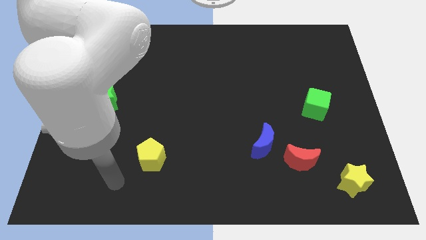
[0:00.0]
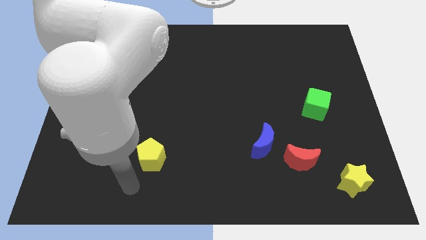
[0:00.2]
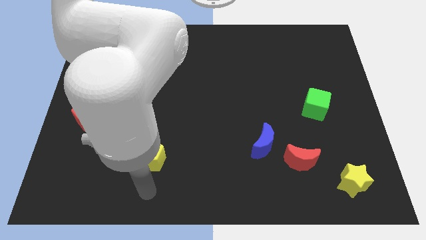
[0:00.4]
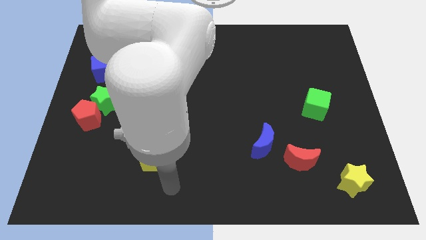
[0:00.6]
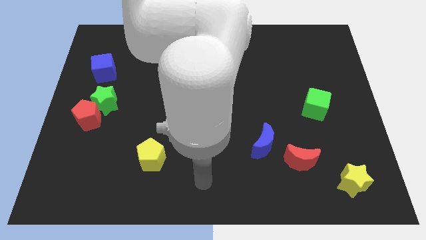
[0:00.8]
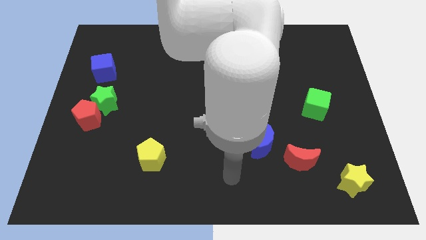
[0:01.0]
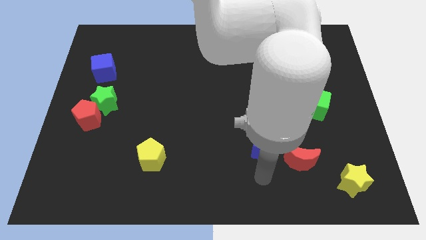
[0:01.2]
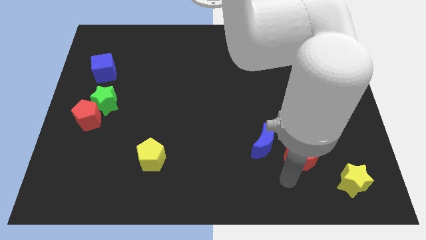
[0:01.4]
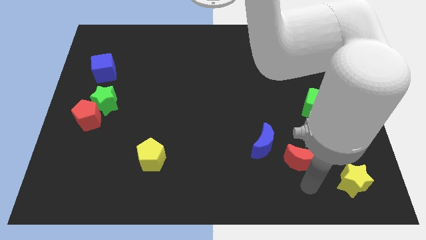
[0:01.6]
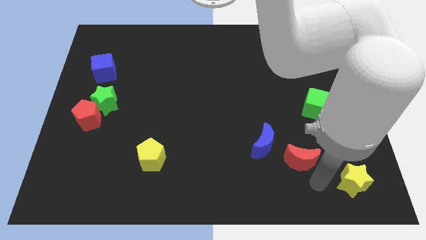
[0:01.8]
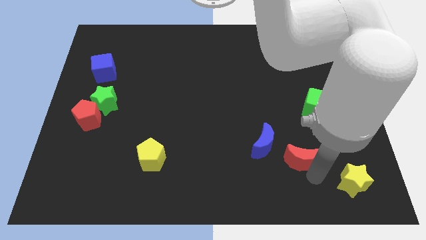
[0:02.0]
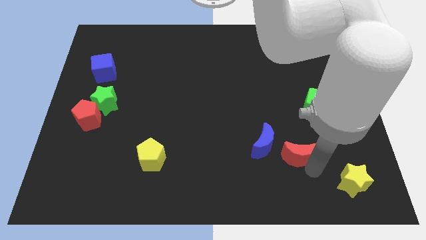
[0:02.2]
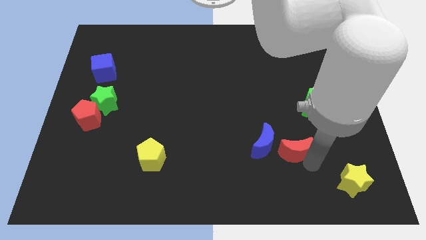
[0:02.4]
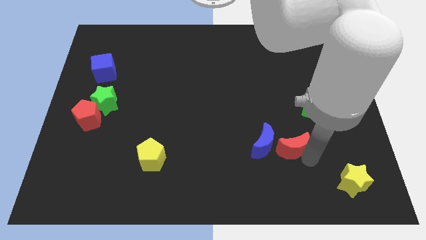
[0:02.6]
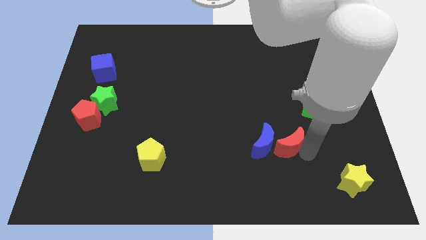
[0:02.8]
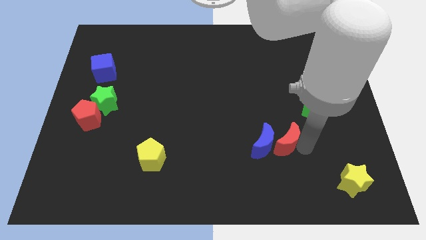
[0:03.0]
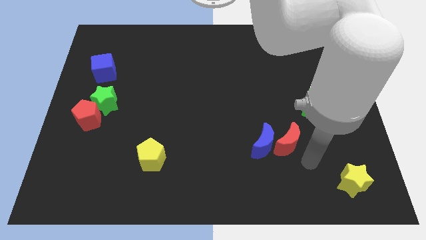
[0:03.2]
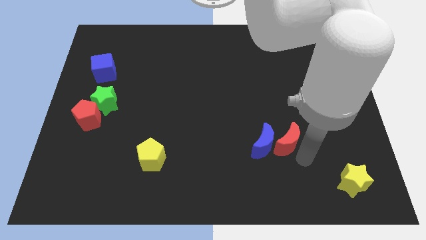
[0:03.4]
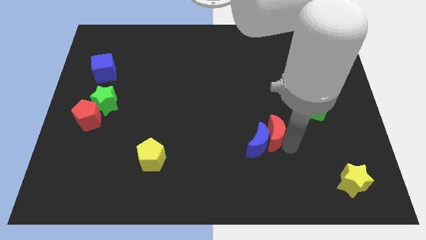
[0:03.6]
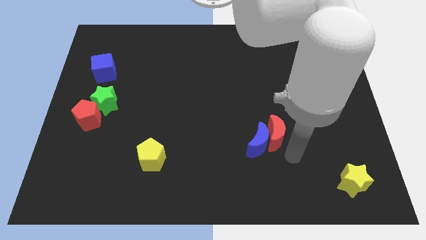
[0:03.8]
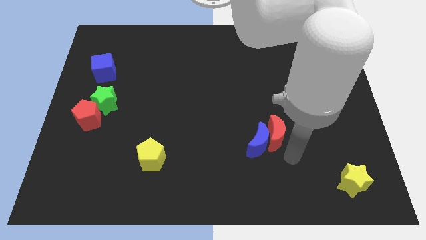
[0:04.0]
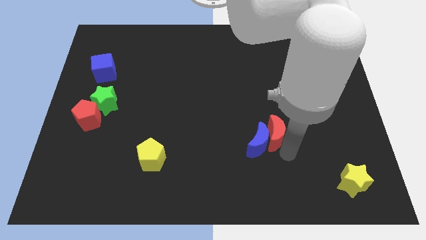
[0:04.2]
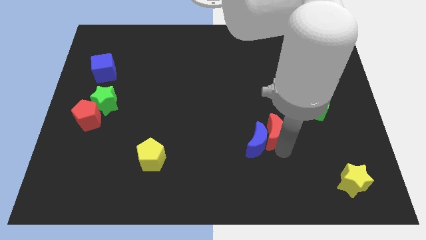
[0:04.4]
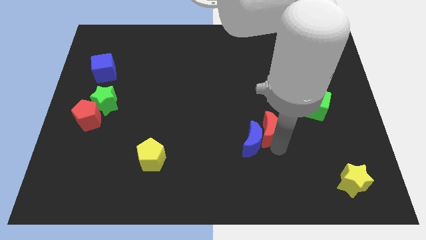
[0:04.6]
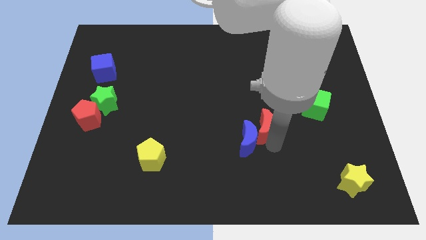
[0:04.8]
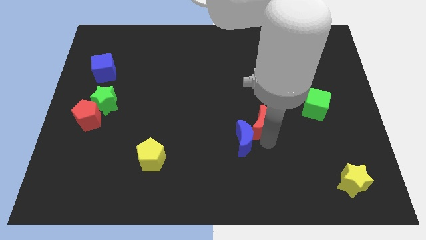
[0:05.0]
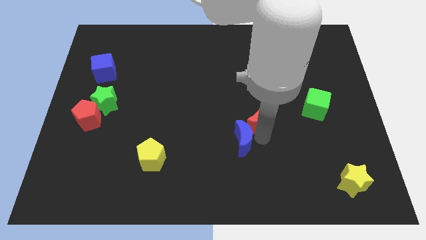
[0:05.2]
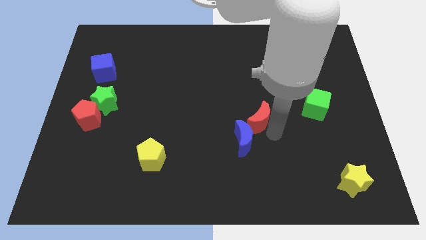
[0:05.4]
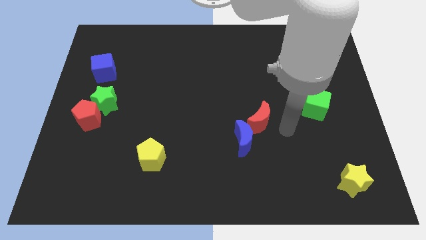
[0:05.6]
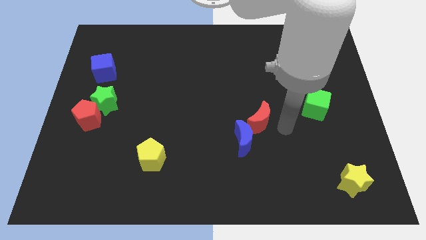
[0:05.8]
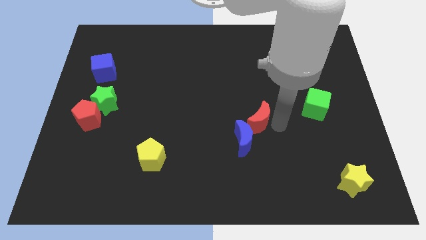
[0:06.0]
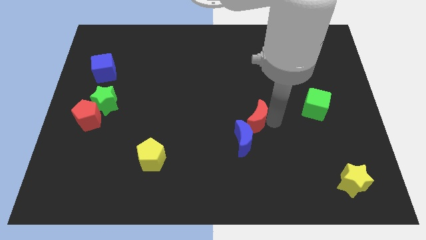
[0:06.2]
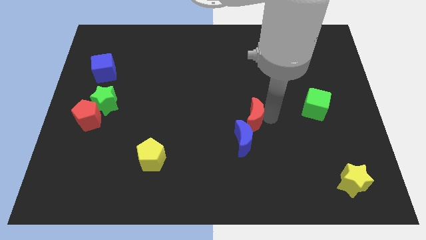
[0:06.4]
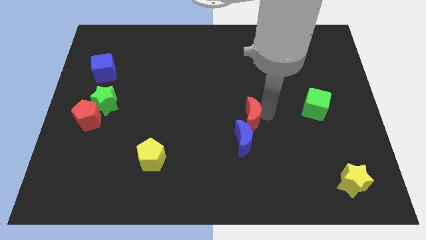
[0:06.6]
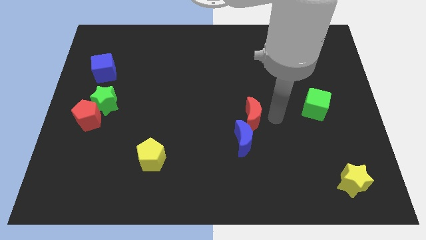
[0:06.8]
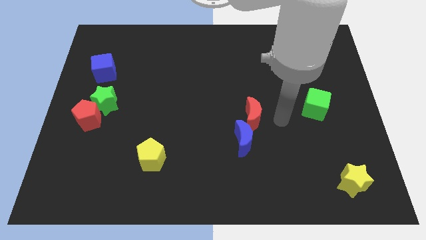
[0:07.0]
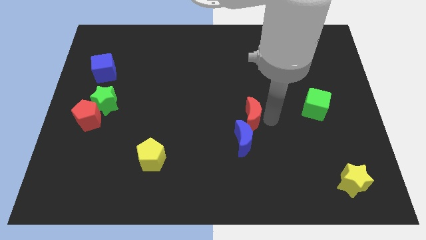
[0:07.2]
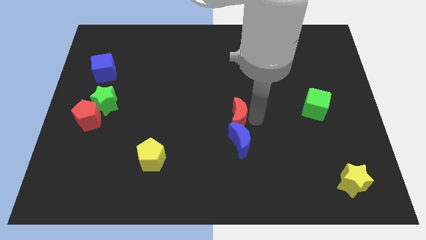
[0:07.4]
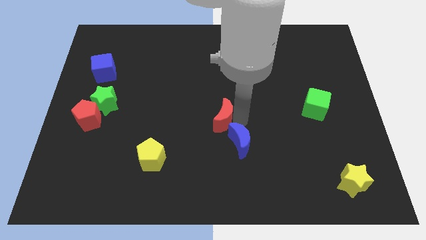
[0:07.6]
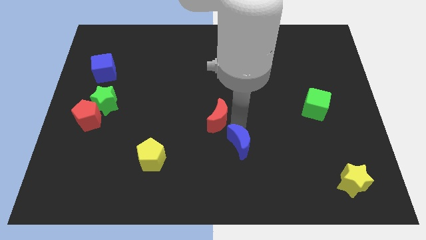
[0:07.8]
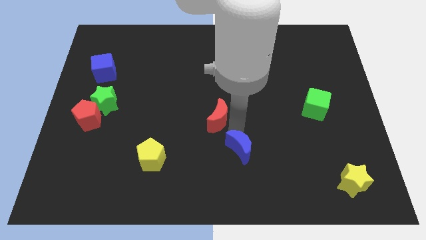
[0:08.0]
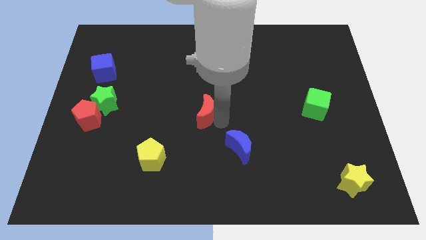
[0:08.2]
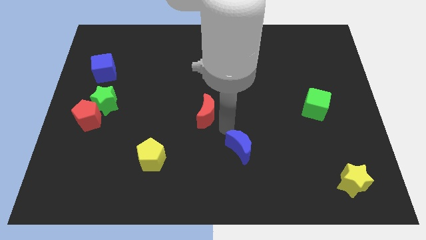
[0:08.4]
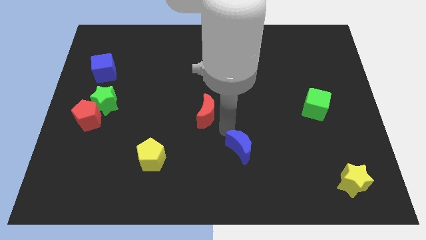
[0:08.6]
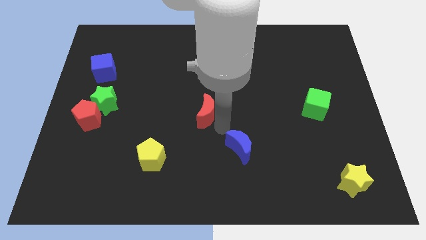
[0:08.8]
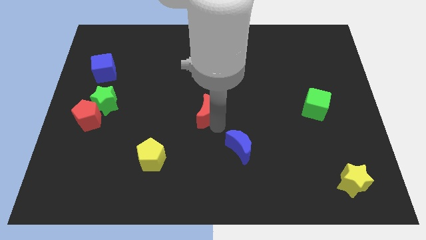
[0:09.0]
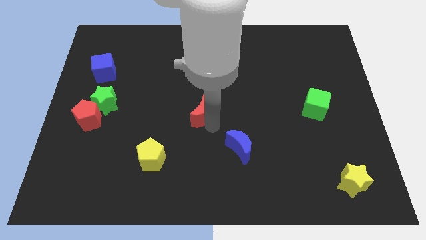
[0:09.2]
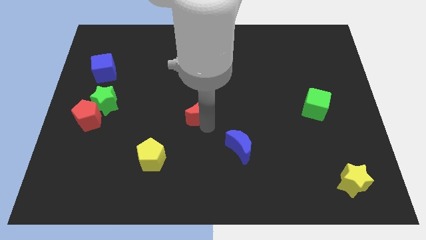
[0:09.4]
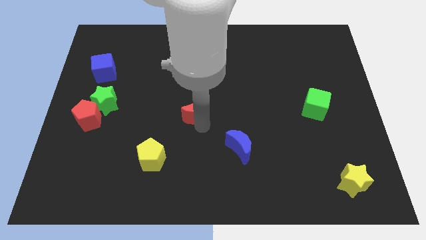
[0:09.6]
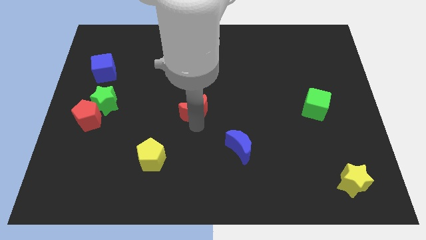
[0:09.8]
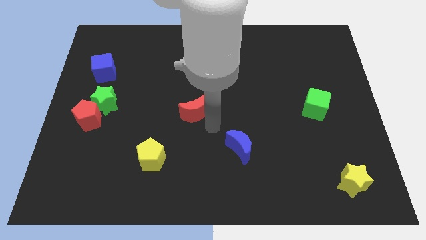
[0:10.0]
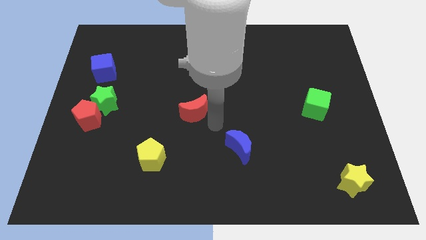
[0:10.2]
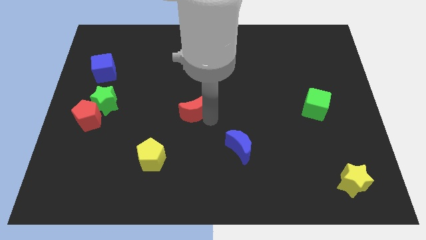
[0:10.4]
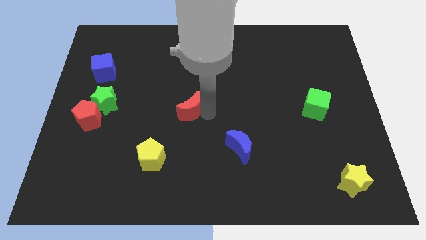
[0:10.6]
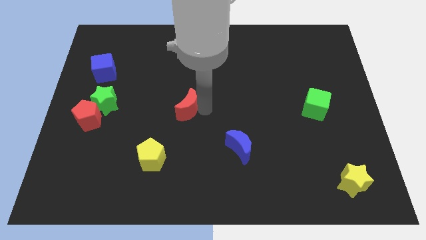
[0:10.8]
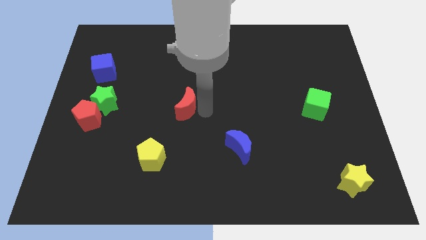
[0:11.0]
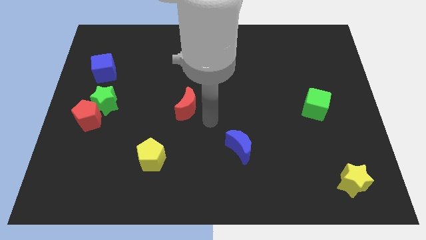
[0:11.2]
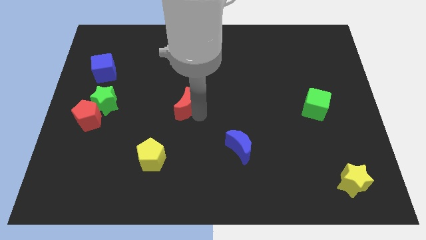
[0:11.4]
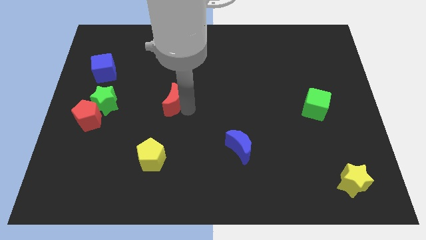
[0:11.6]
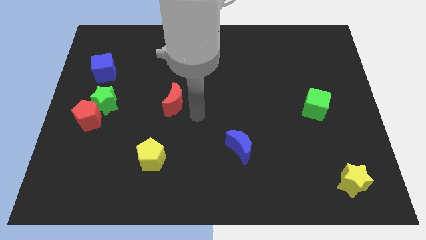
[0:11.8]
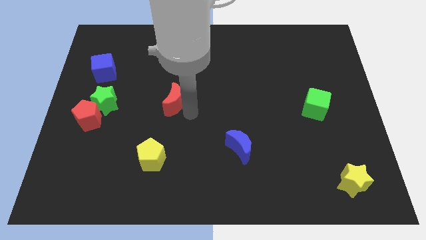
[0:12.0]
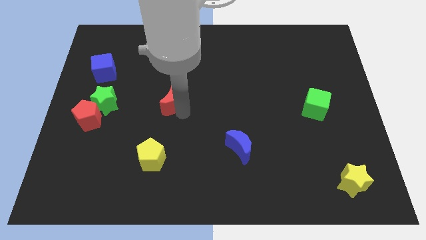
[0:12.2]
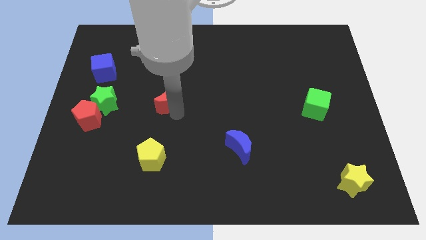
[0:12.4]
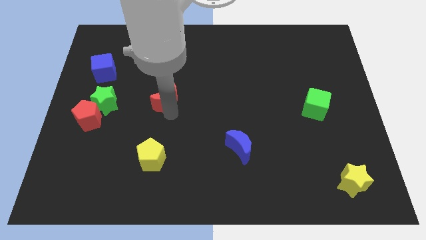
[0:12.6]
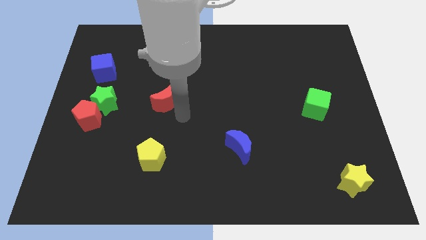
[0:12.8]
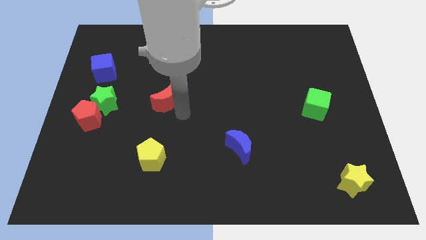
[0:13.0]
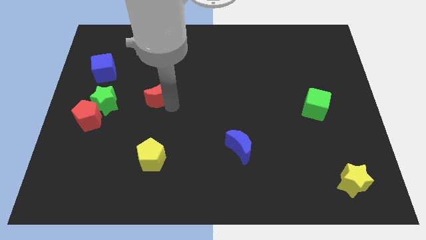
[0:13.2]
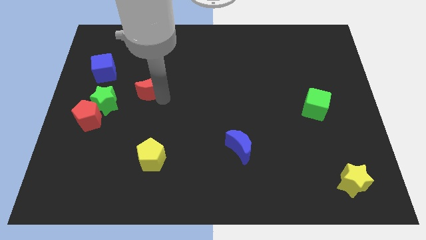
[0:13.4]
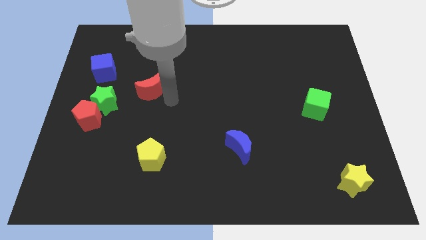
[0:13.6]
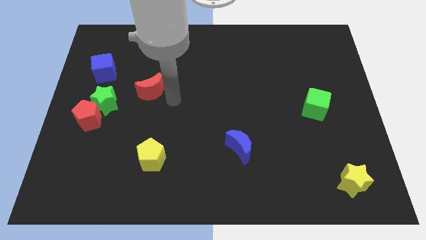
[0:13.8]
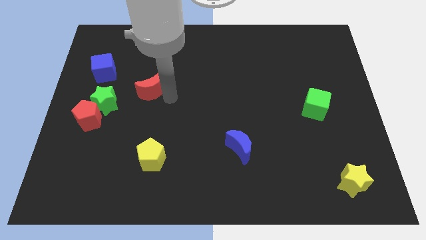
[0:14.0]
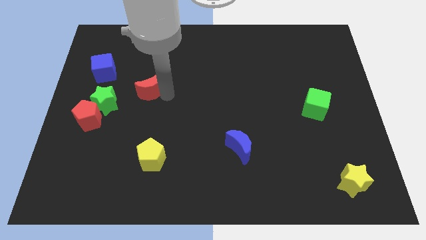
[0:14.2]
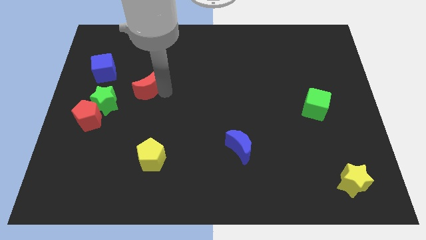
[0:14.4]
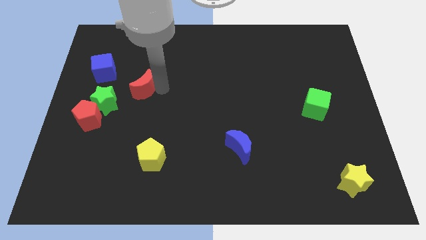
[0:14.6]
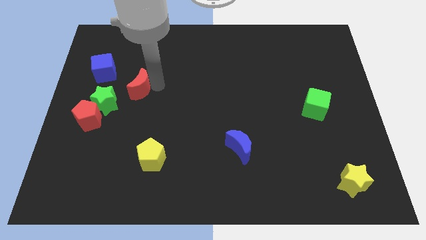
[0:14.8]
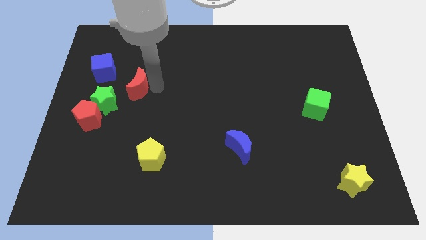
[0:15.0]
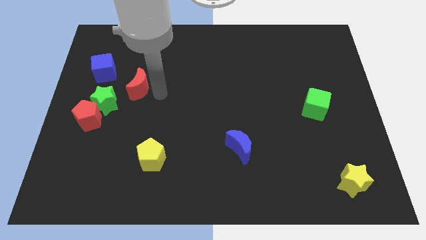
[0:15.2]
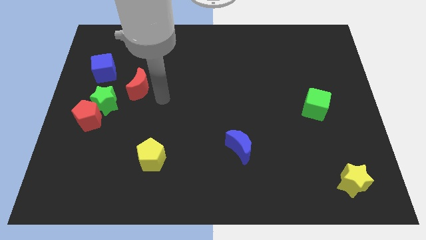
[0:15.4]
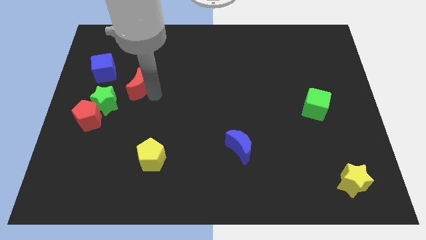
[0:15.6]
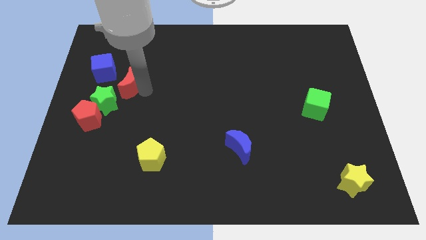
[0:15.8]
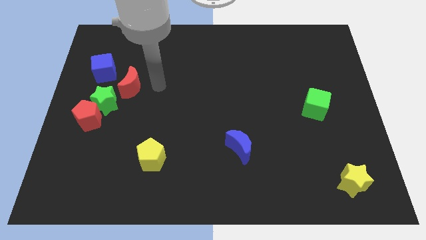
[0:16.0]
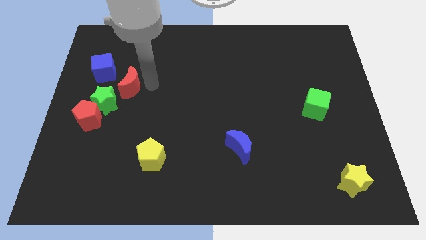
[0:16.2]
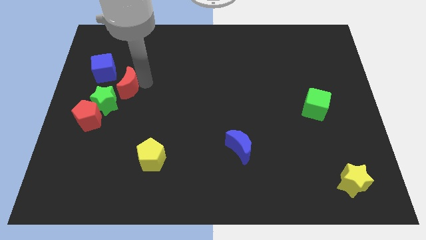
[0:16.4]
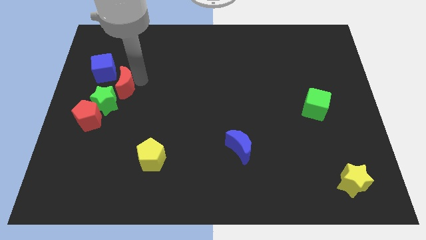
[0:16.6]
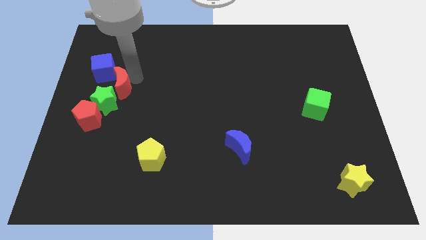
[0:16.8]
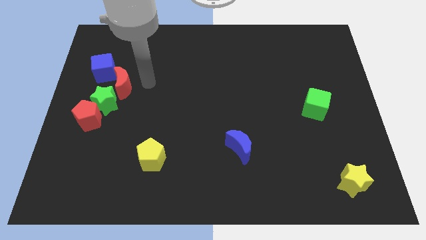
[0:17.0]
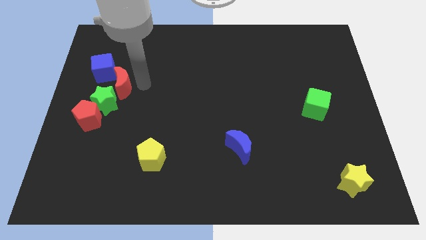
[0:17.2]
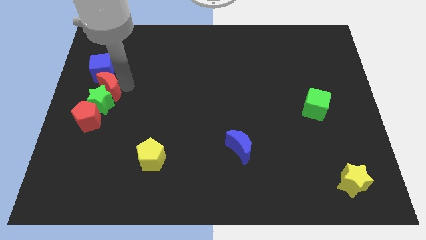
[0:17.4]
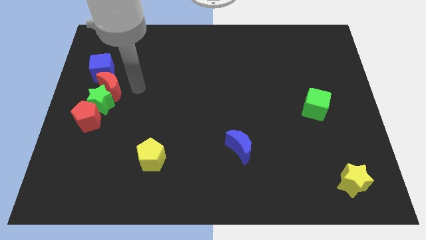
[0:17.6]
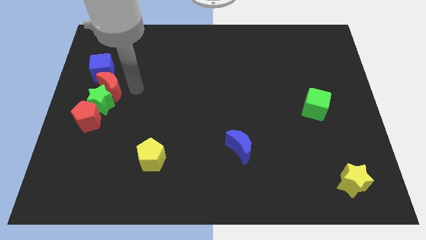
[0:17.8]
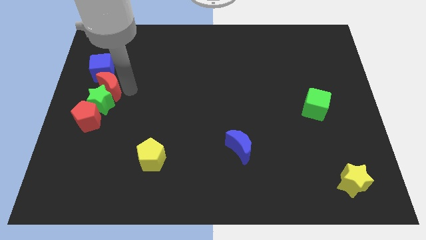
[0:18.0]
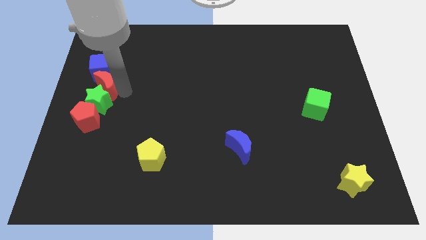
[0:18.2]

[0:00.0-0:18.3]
slide the red moon to the left side of the board
